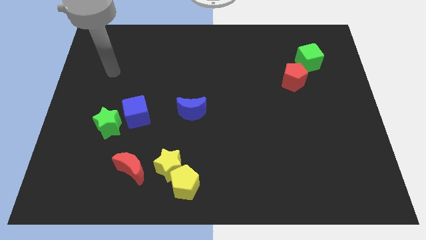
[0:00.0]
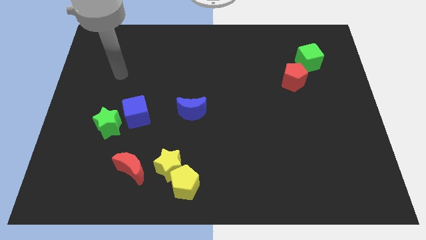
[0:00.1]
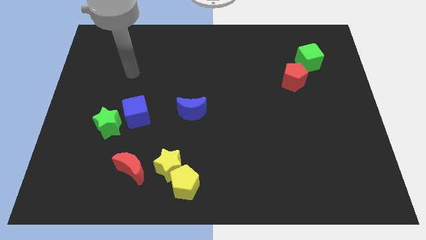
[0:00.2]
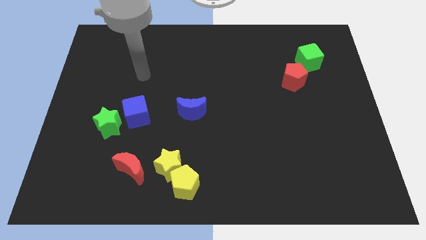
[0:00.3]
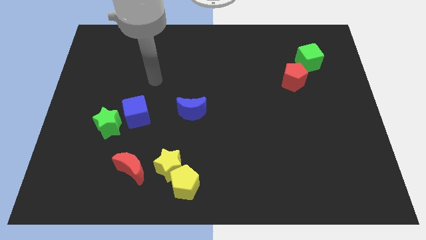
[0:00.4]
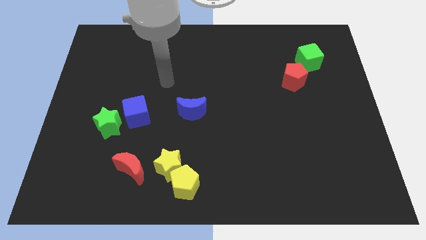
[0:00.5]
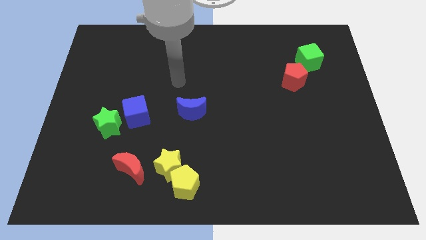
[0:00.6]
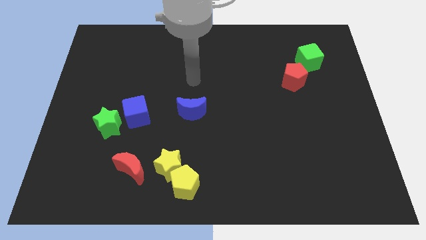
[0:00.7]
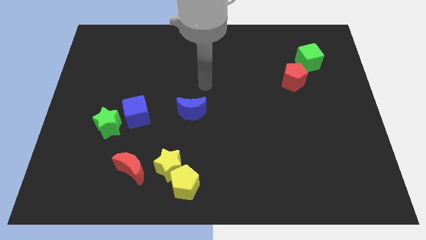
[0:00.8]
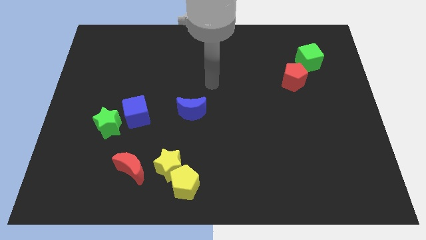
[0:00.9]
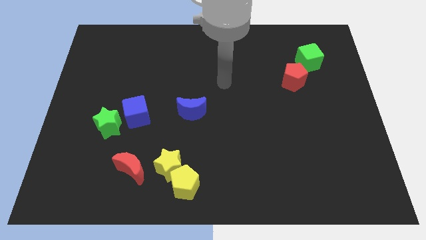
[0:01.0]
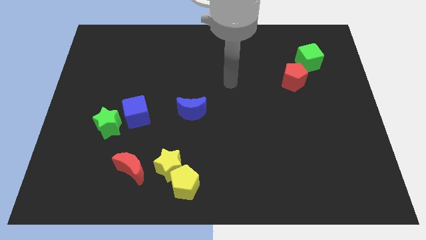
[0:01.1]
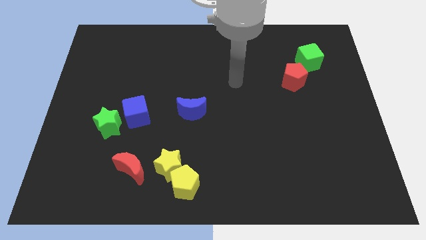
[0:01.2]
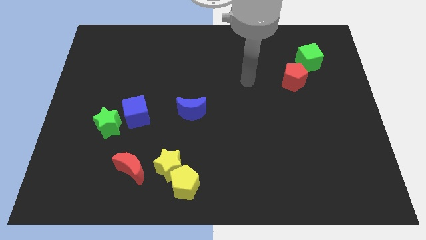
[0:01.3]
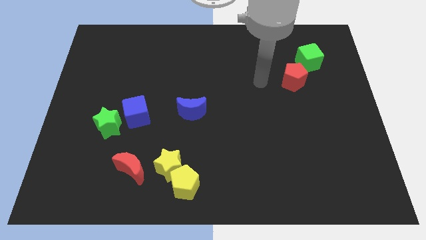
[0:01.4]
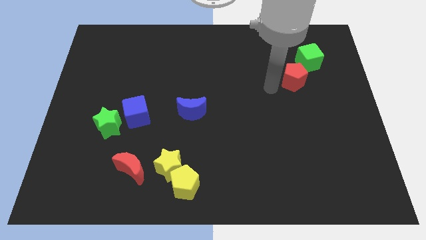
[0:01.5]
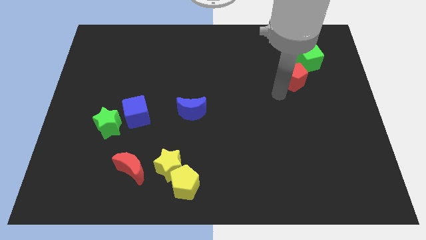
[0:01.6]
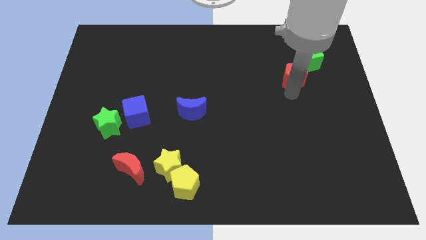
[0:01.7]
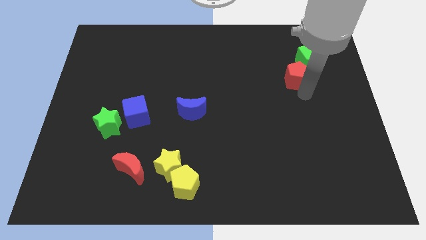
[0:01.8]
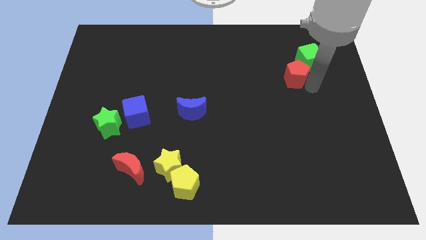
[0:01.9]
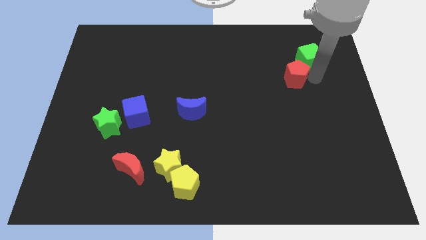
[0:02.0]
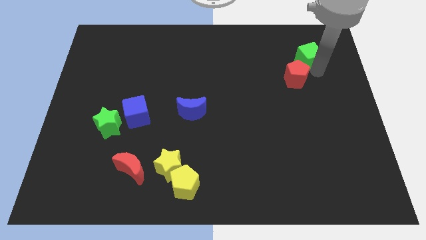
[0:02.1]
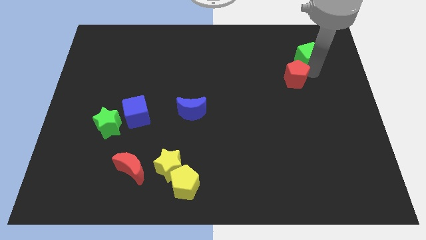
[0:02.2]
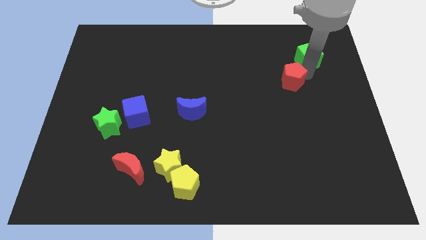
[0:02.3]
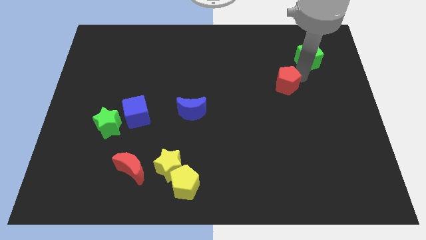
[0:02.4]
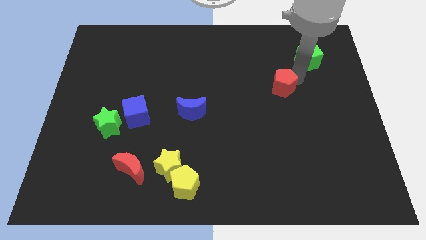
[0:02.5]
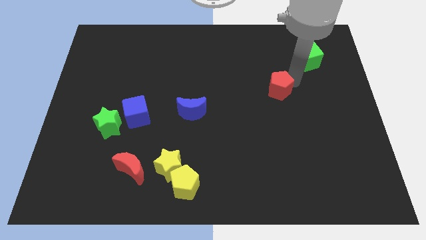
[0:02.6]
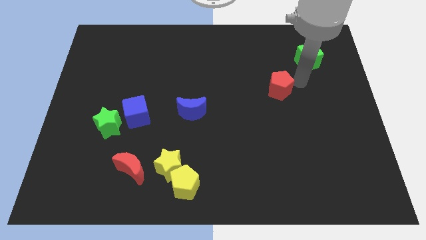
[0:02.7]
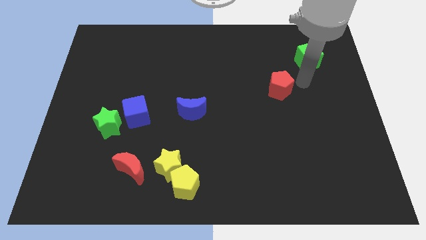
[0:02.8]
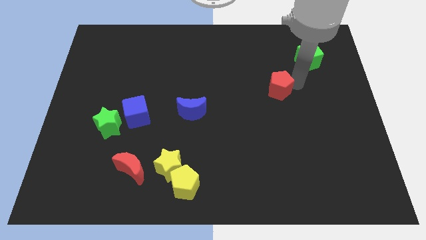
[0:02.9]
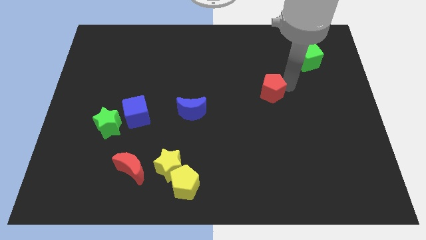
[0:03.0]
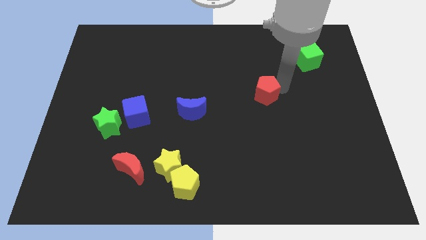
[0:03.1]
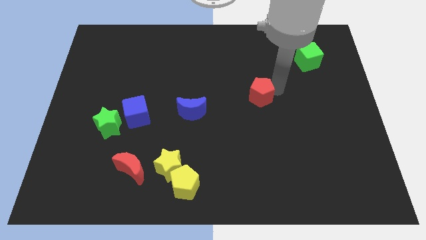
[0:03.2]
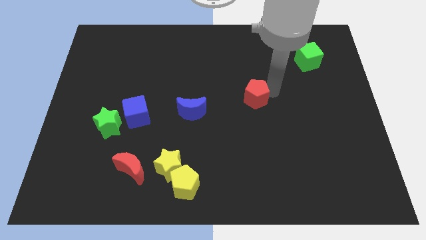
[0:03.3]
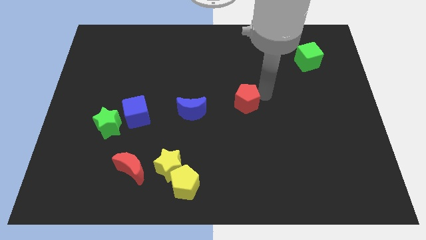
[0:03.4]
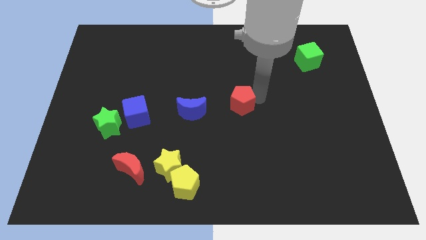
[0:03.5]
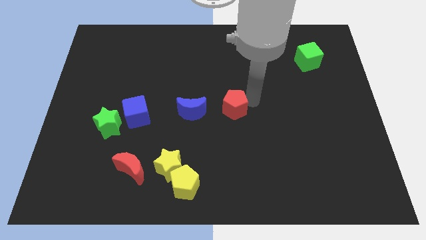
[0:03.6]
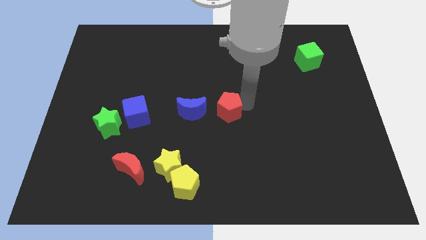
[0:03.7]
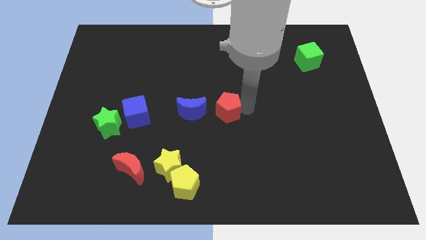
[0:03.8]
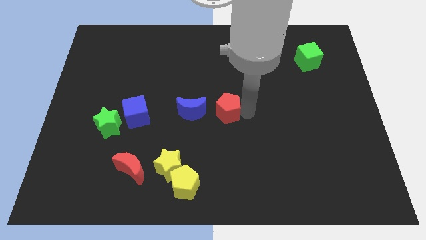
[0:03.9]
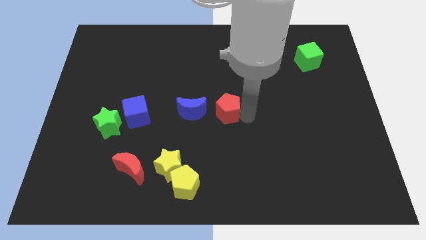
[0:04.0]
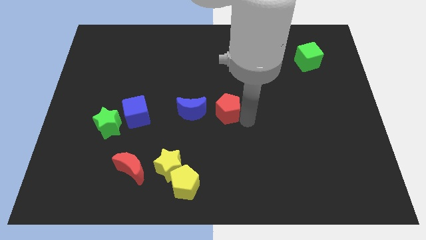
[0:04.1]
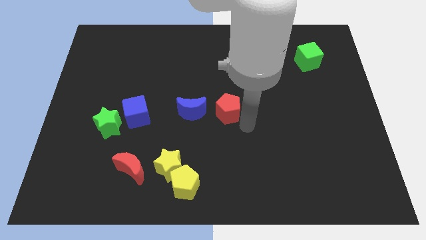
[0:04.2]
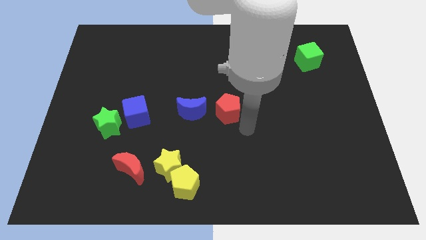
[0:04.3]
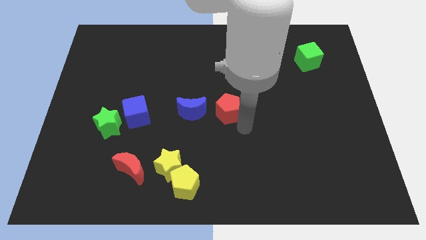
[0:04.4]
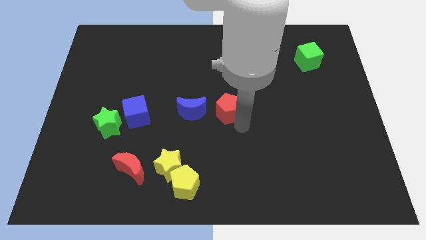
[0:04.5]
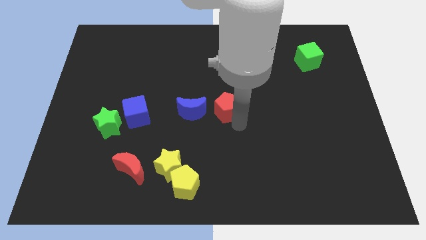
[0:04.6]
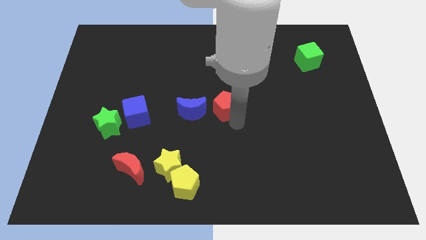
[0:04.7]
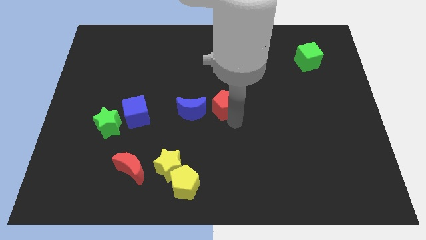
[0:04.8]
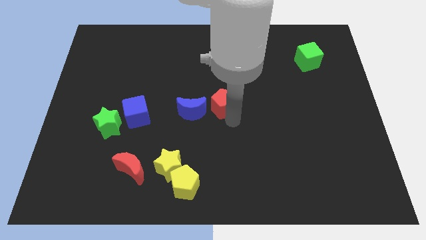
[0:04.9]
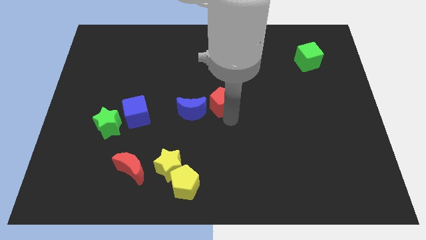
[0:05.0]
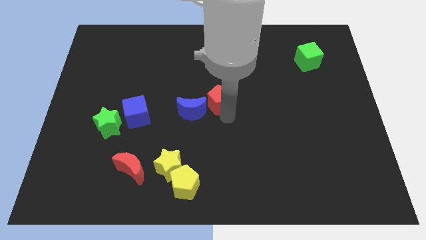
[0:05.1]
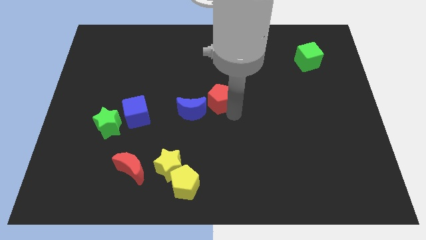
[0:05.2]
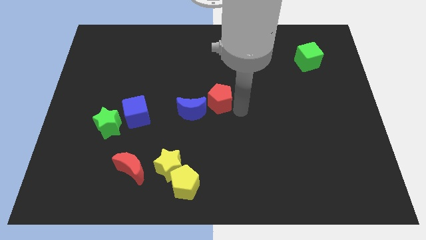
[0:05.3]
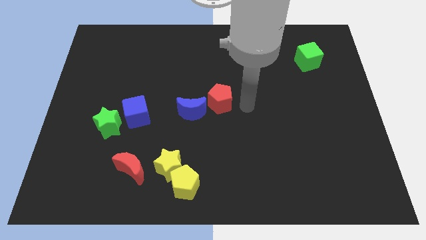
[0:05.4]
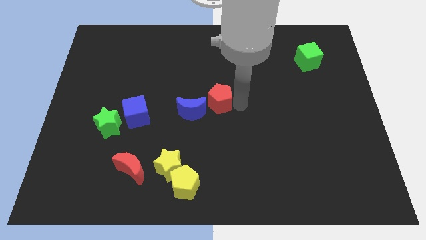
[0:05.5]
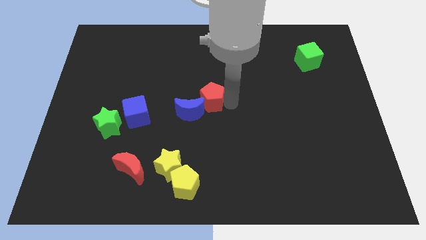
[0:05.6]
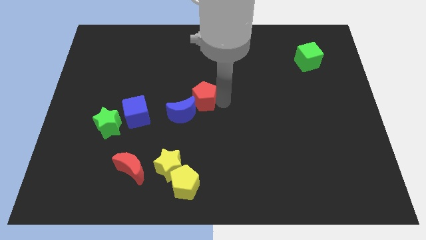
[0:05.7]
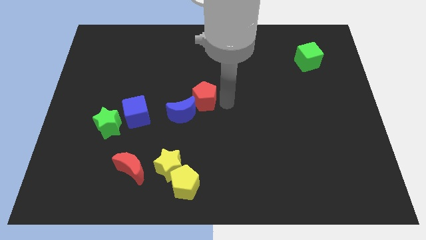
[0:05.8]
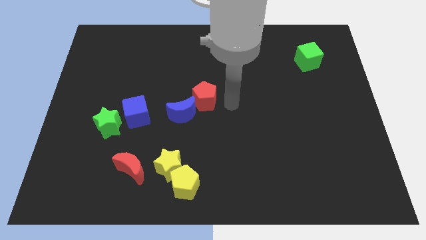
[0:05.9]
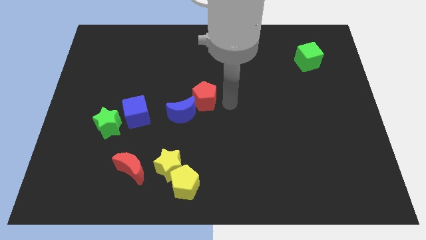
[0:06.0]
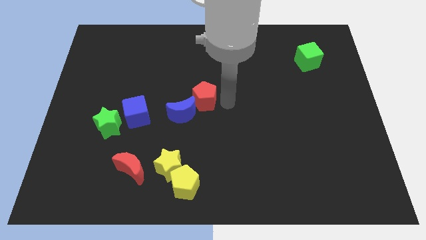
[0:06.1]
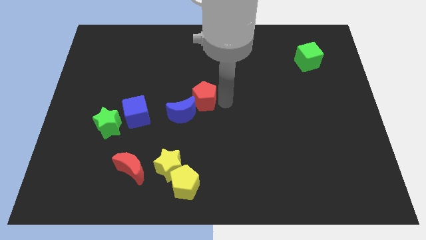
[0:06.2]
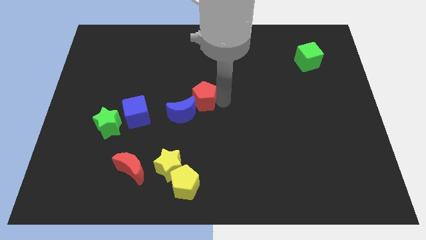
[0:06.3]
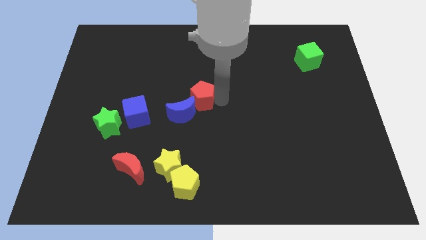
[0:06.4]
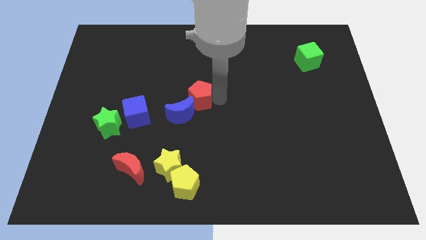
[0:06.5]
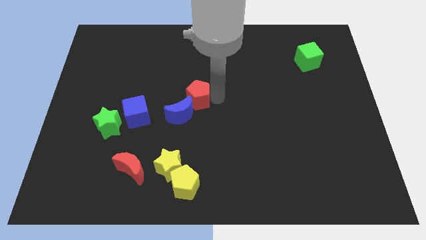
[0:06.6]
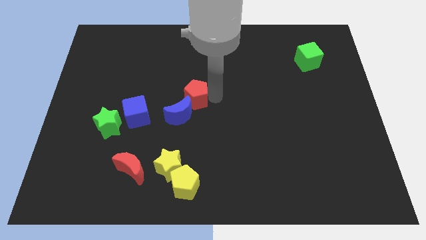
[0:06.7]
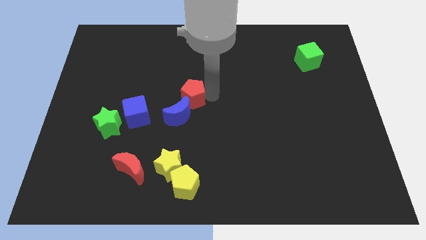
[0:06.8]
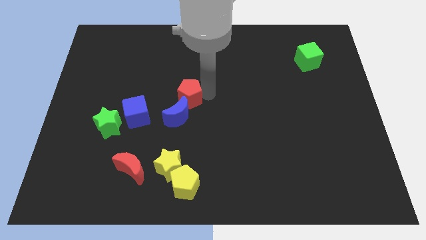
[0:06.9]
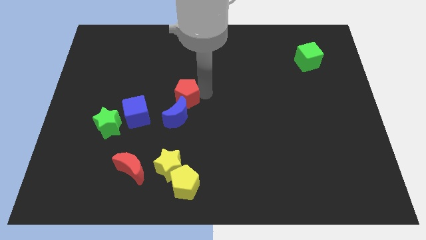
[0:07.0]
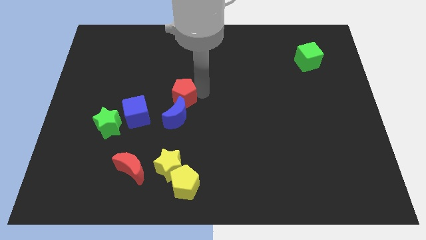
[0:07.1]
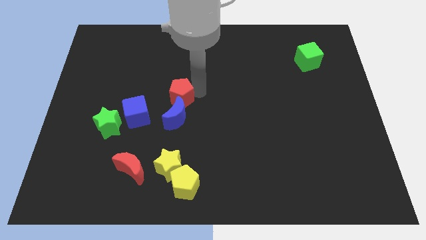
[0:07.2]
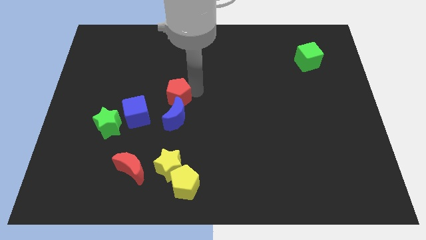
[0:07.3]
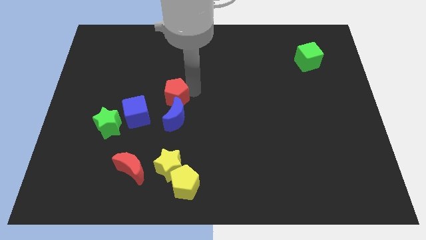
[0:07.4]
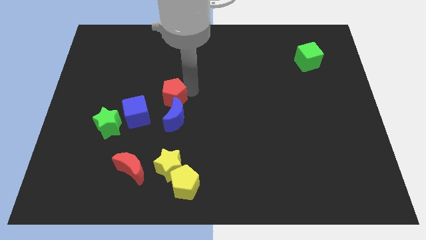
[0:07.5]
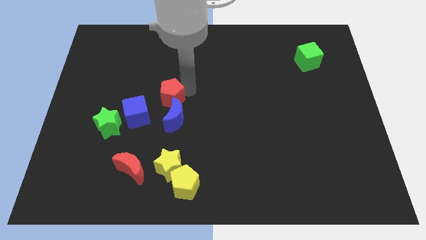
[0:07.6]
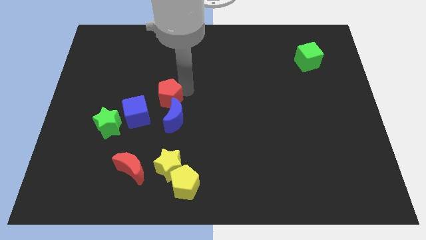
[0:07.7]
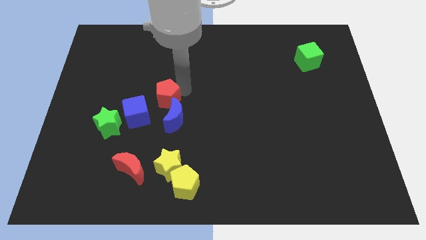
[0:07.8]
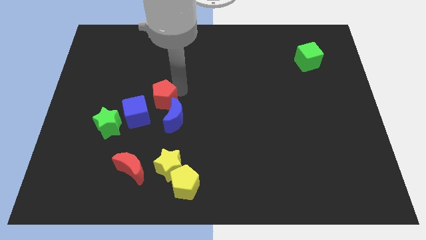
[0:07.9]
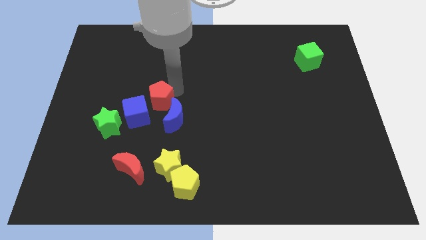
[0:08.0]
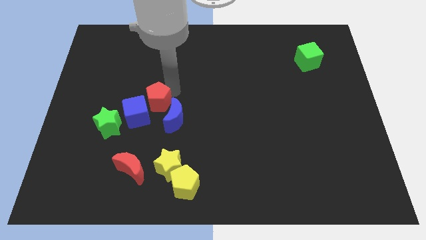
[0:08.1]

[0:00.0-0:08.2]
put the red pentagon next to the blue cube
